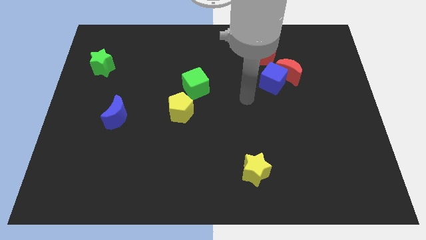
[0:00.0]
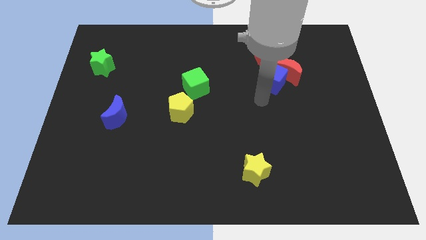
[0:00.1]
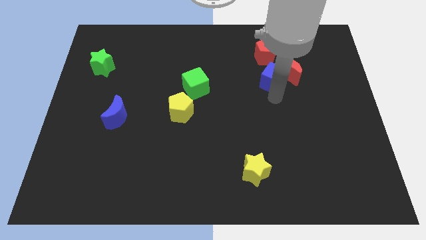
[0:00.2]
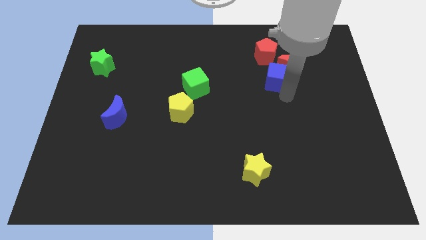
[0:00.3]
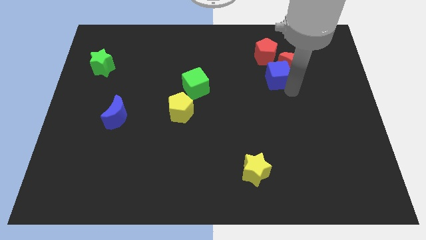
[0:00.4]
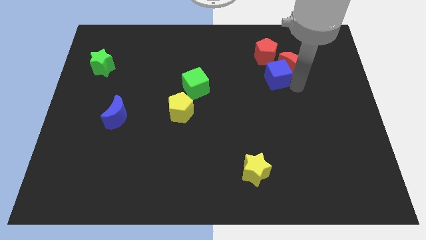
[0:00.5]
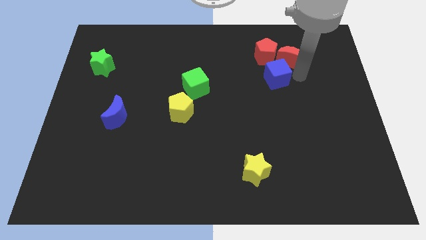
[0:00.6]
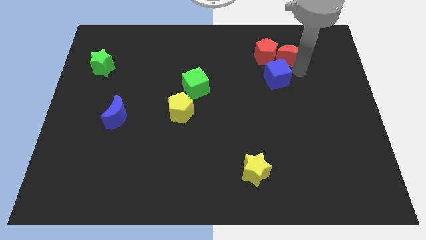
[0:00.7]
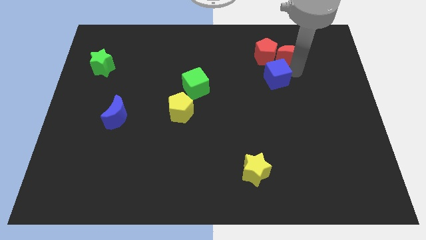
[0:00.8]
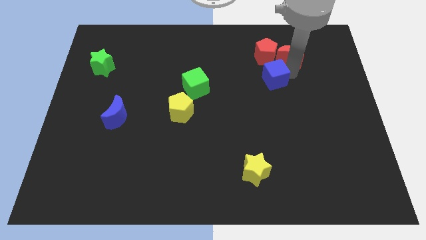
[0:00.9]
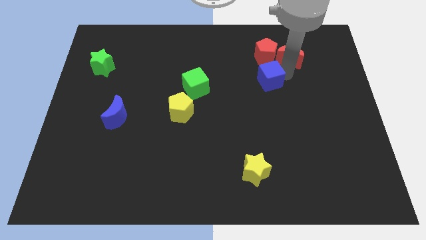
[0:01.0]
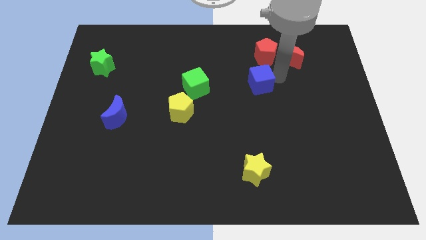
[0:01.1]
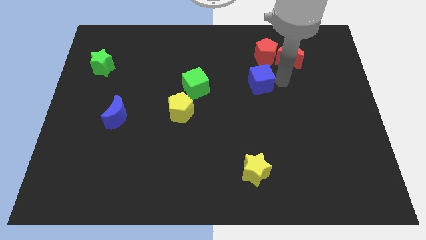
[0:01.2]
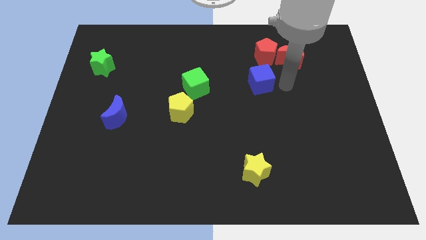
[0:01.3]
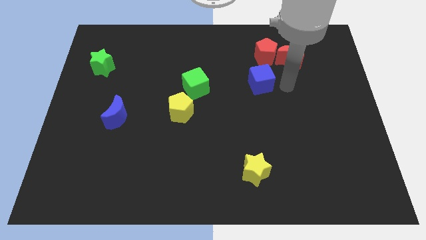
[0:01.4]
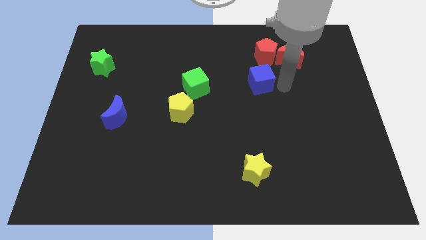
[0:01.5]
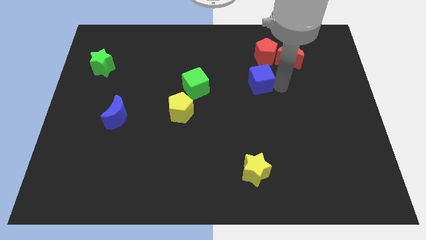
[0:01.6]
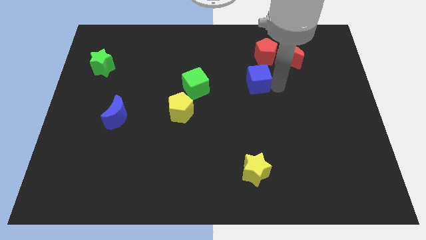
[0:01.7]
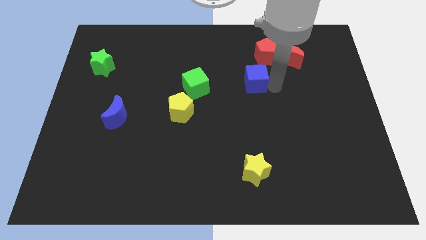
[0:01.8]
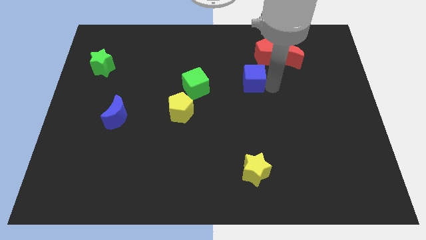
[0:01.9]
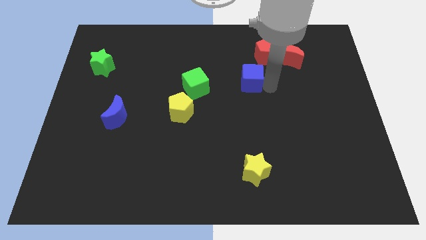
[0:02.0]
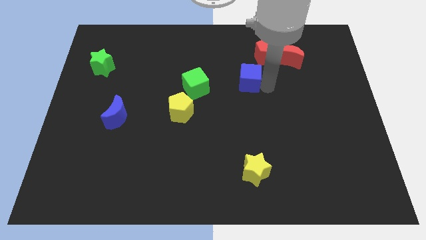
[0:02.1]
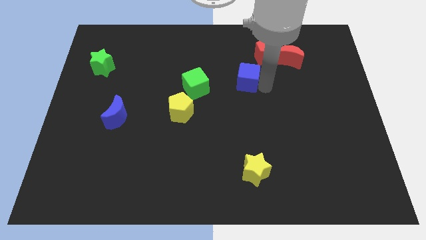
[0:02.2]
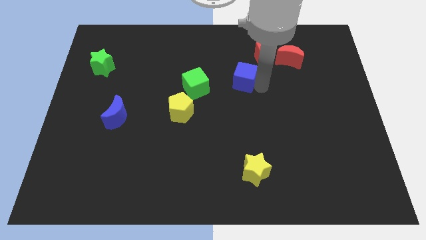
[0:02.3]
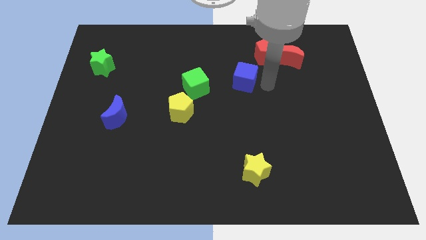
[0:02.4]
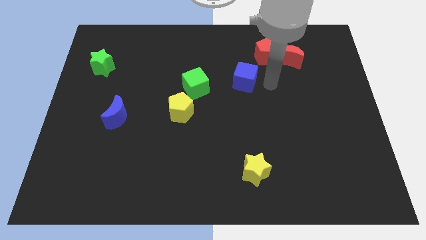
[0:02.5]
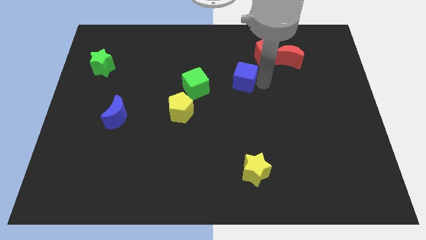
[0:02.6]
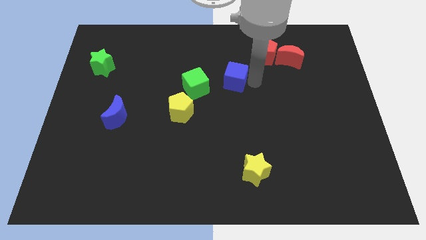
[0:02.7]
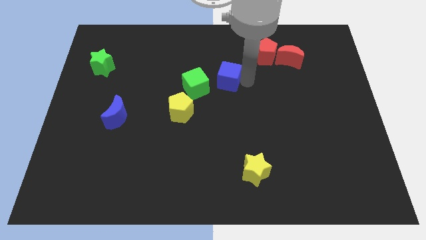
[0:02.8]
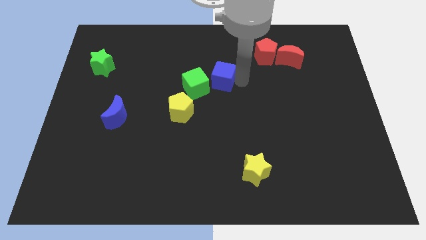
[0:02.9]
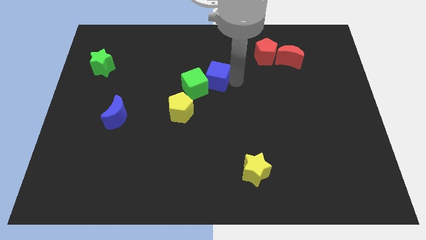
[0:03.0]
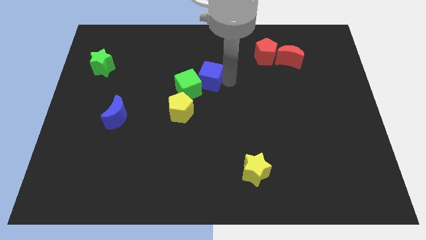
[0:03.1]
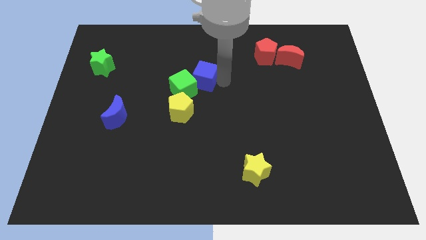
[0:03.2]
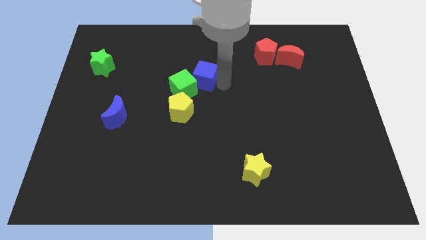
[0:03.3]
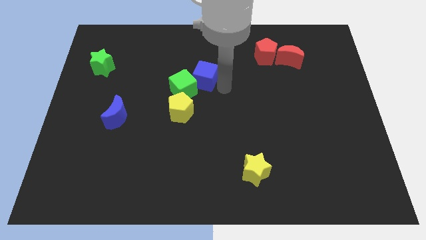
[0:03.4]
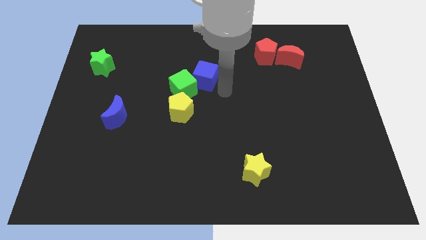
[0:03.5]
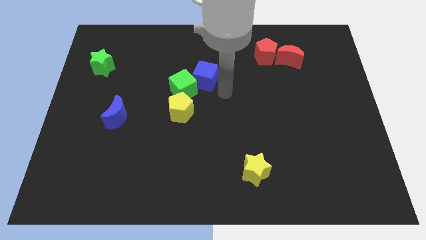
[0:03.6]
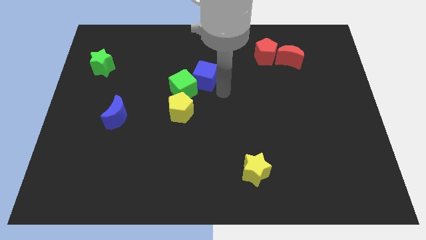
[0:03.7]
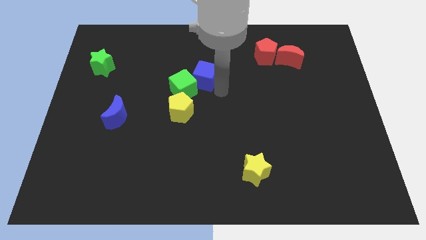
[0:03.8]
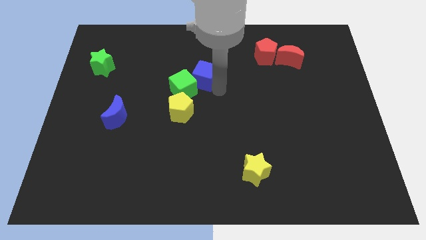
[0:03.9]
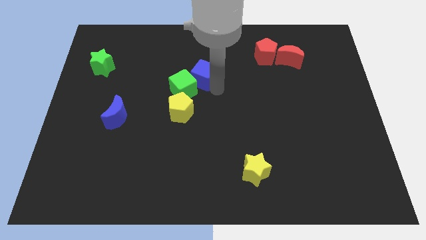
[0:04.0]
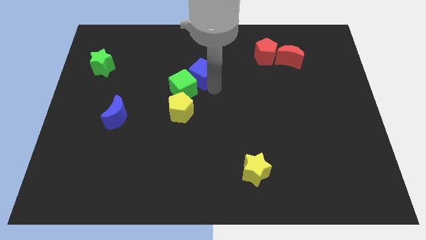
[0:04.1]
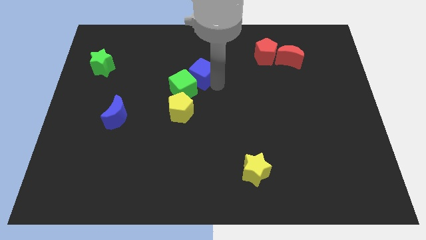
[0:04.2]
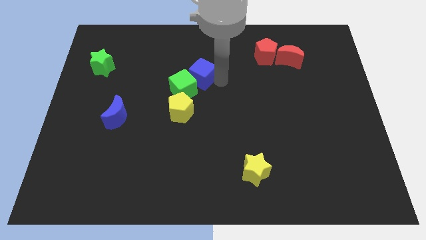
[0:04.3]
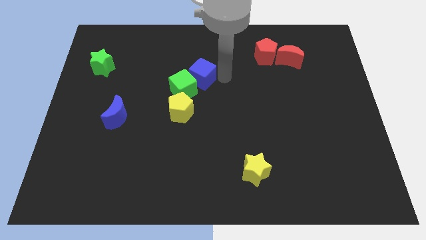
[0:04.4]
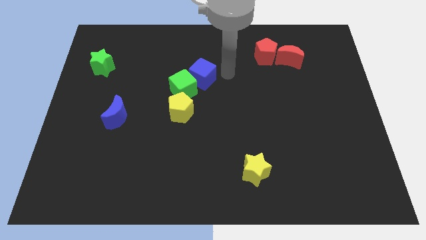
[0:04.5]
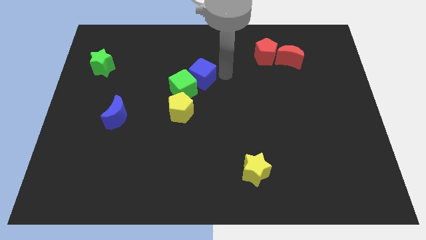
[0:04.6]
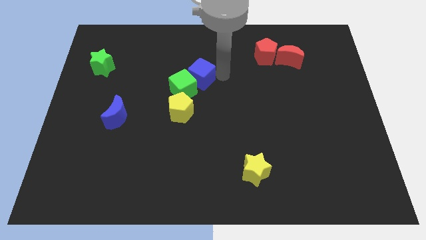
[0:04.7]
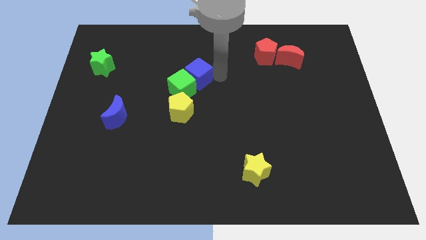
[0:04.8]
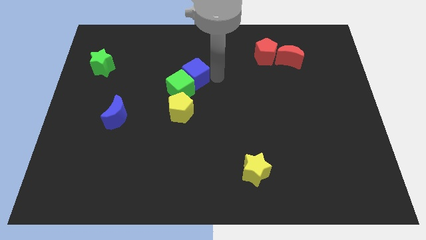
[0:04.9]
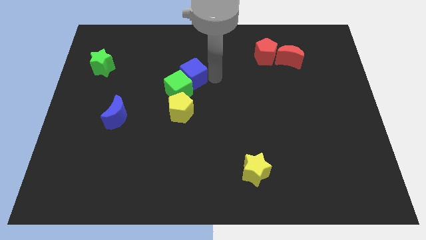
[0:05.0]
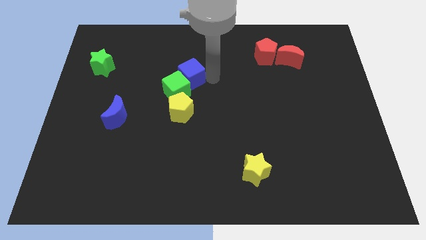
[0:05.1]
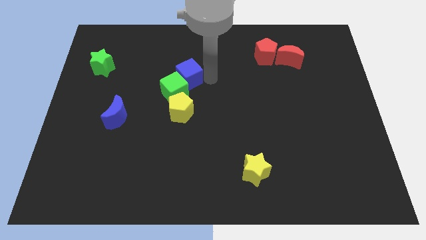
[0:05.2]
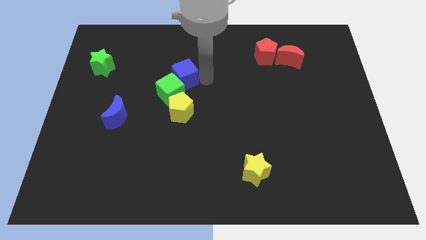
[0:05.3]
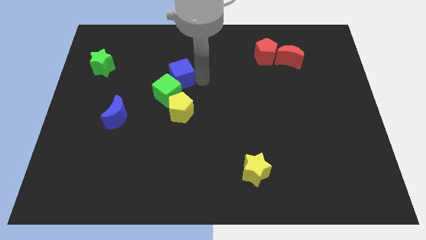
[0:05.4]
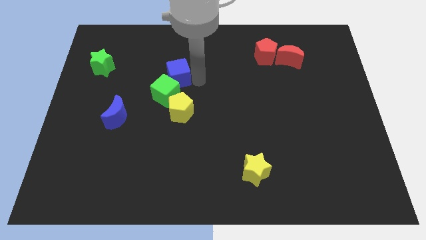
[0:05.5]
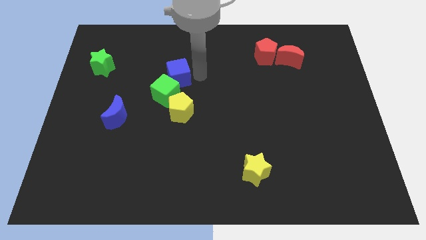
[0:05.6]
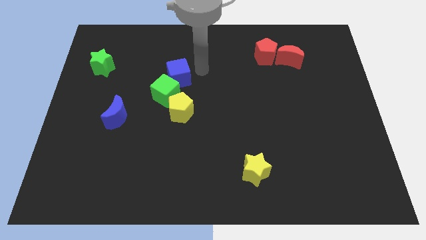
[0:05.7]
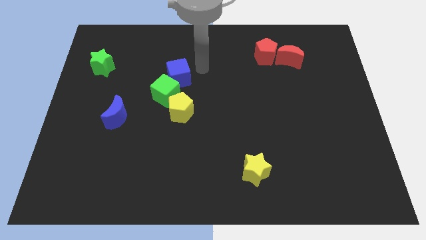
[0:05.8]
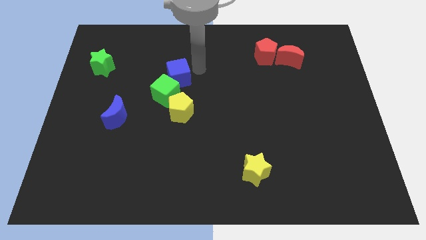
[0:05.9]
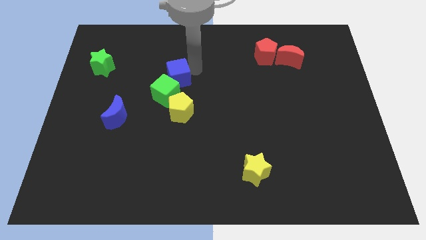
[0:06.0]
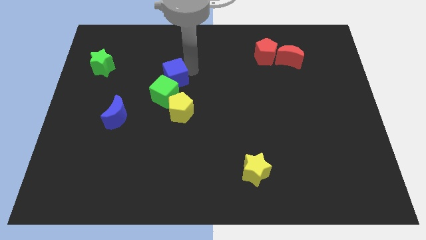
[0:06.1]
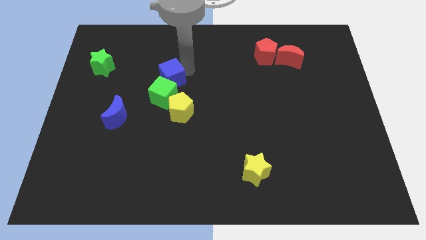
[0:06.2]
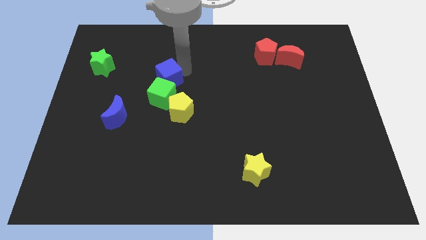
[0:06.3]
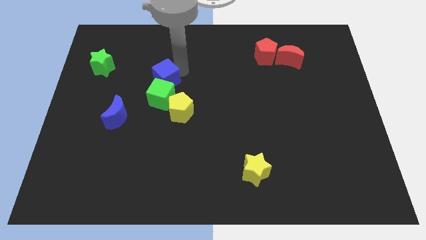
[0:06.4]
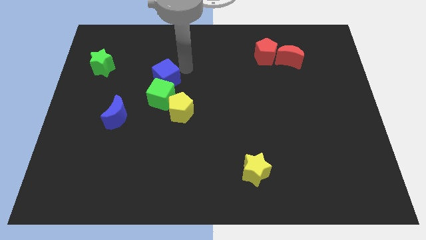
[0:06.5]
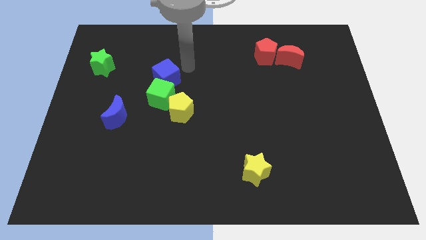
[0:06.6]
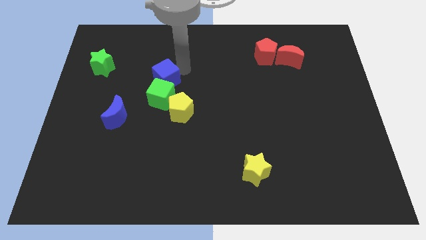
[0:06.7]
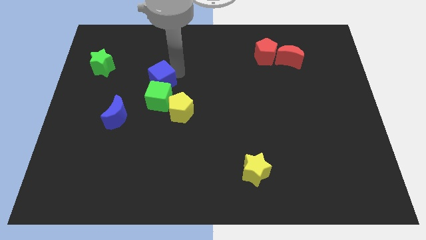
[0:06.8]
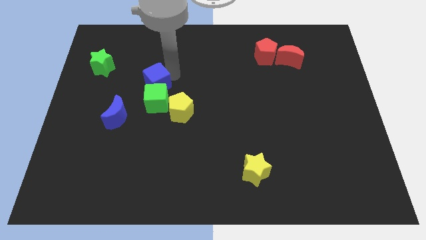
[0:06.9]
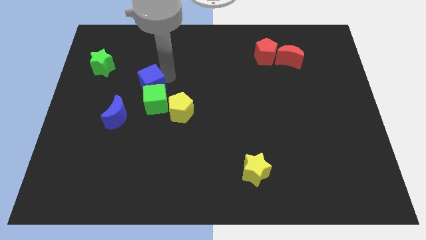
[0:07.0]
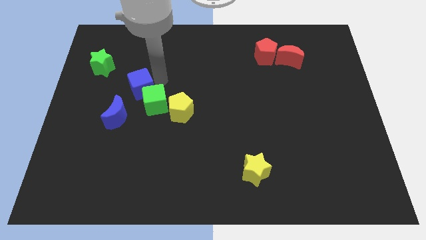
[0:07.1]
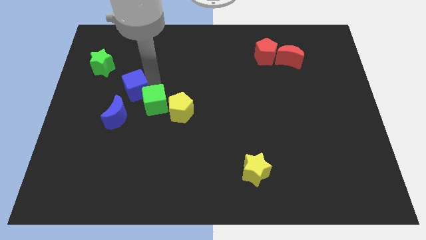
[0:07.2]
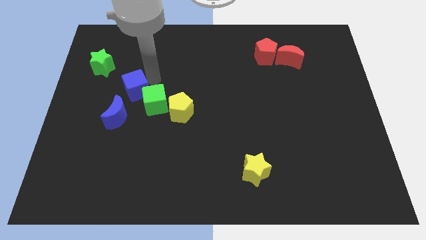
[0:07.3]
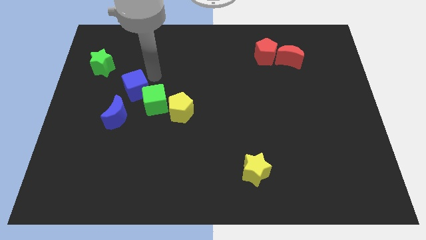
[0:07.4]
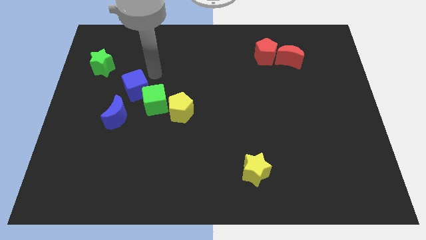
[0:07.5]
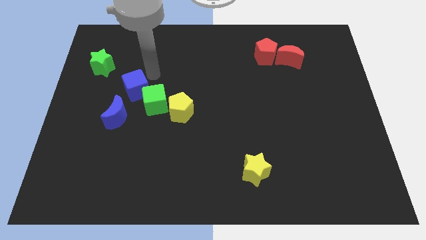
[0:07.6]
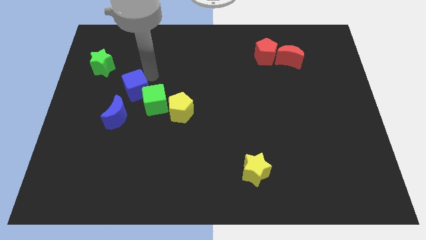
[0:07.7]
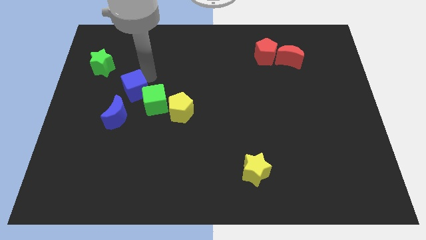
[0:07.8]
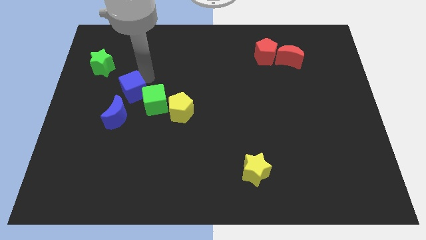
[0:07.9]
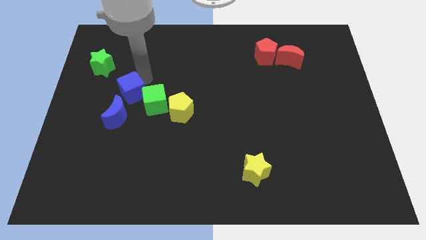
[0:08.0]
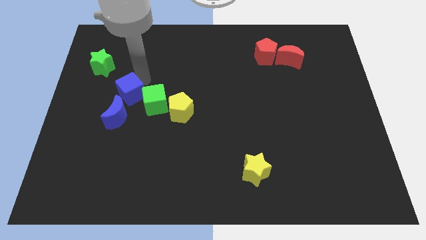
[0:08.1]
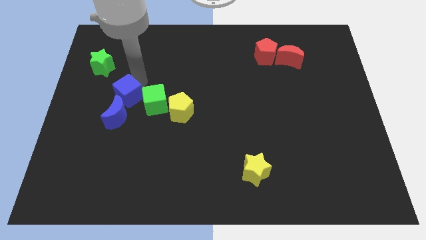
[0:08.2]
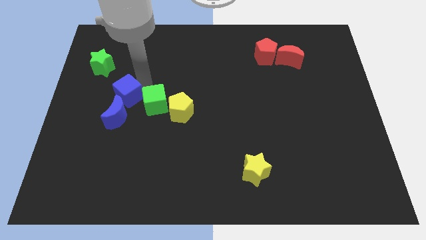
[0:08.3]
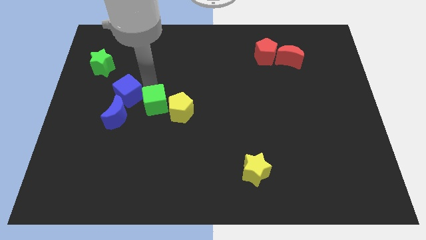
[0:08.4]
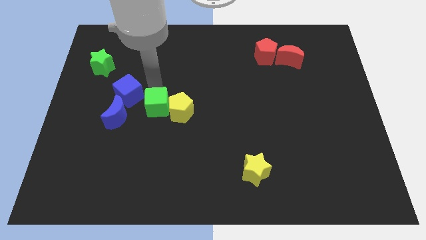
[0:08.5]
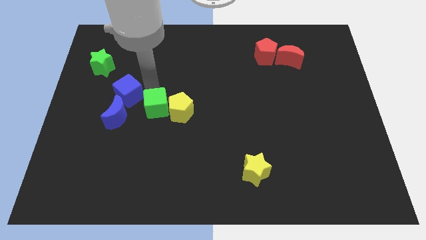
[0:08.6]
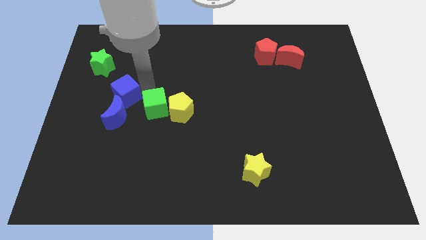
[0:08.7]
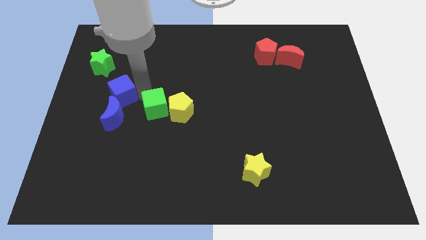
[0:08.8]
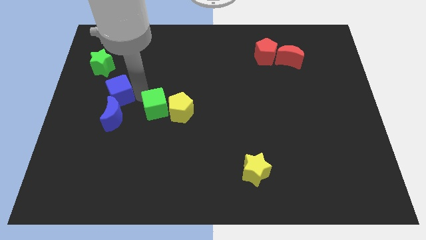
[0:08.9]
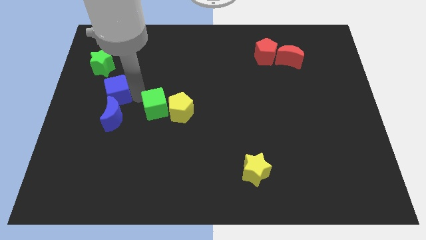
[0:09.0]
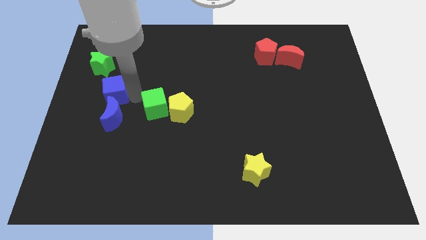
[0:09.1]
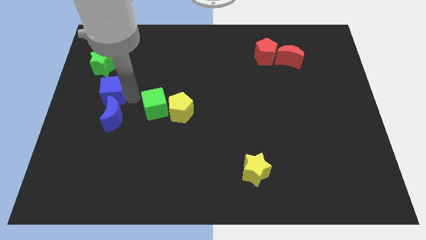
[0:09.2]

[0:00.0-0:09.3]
move the blue cube below the green star
